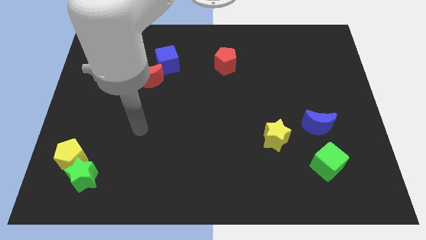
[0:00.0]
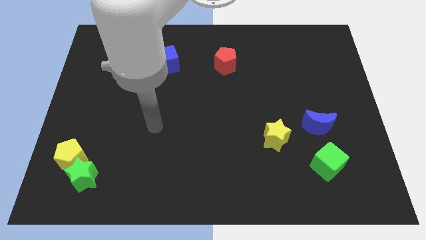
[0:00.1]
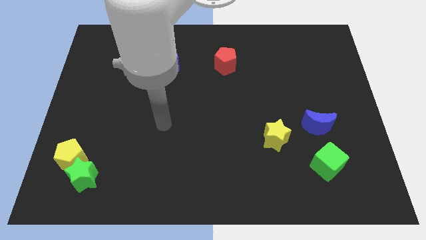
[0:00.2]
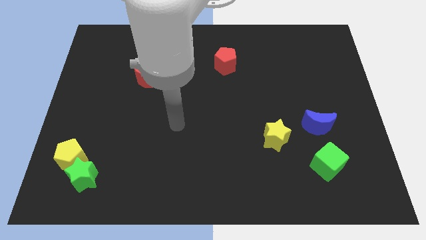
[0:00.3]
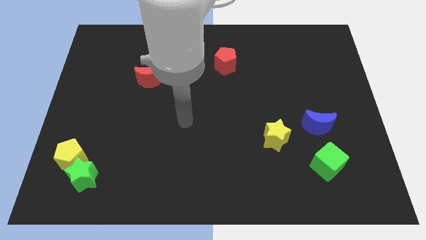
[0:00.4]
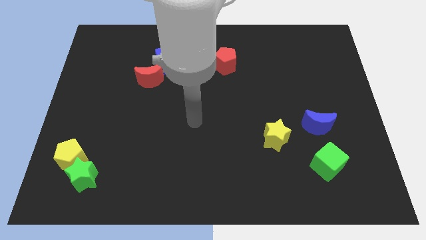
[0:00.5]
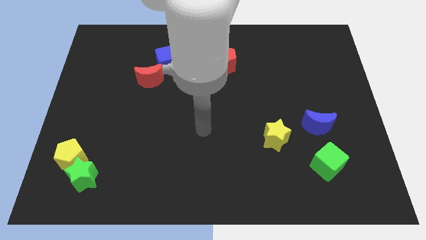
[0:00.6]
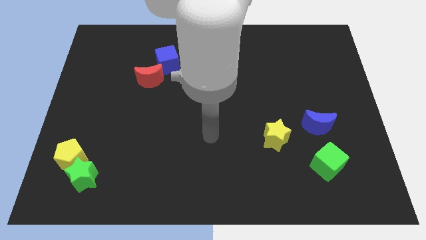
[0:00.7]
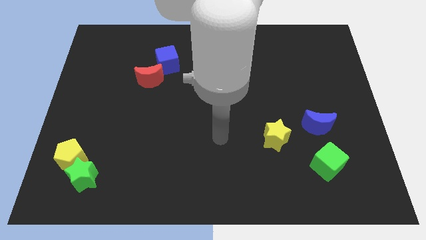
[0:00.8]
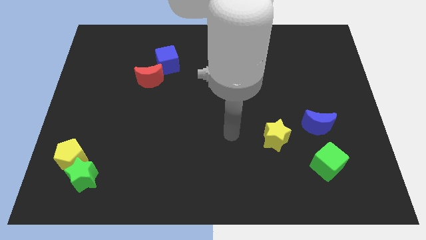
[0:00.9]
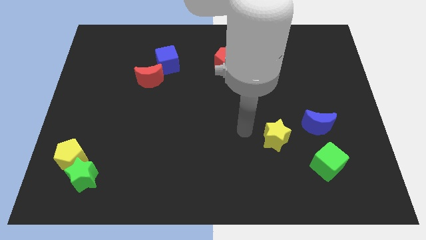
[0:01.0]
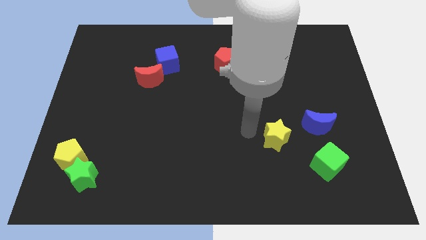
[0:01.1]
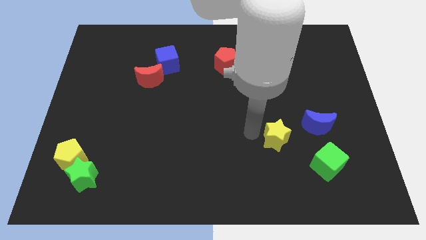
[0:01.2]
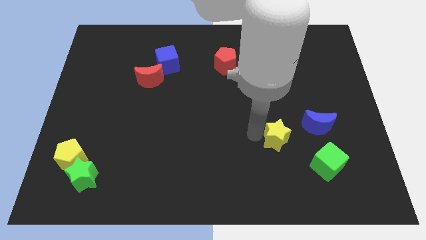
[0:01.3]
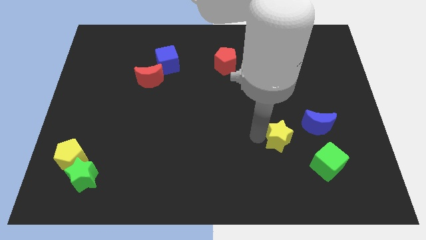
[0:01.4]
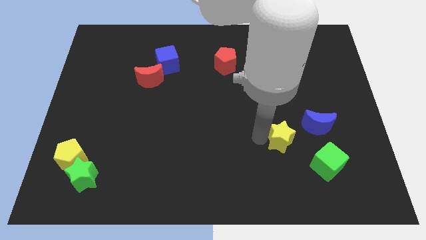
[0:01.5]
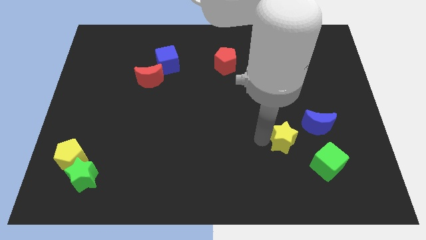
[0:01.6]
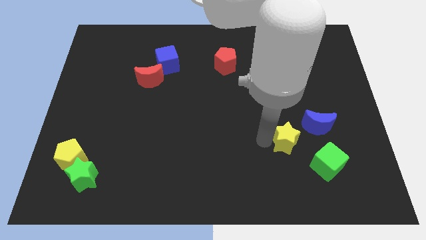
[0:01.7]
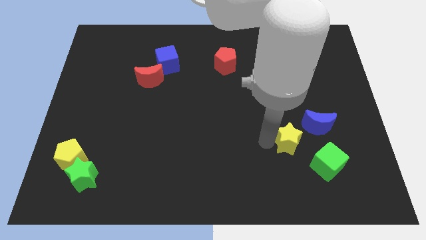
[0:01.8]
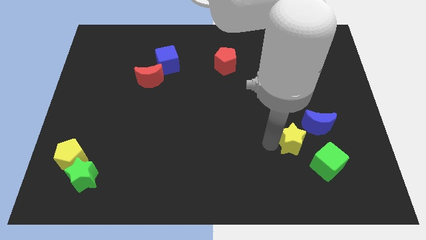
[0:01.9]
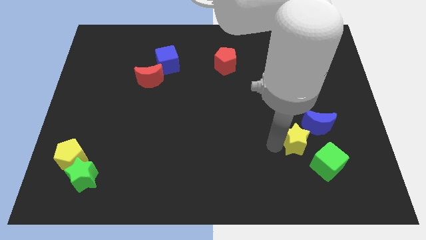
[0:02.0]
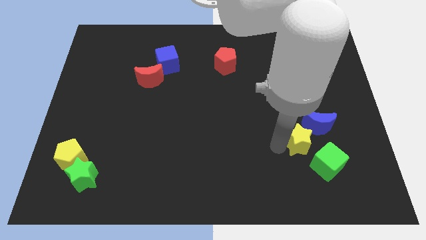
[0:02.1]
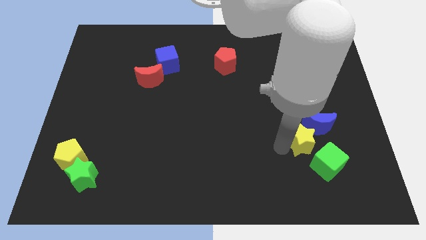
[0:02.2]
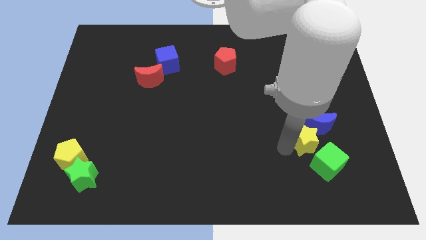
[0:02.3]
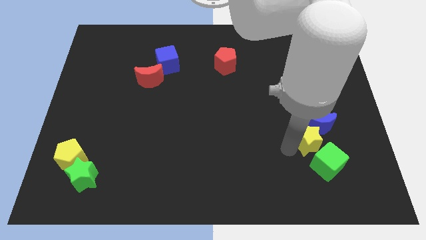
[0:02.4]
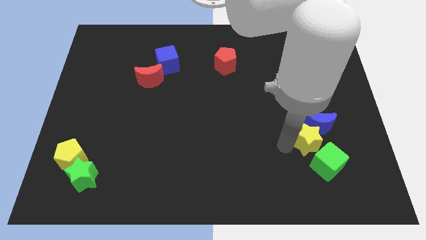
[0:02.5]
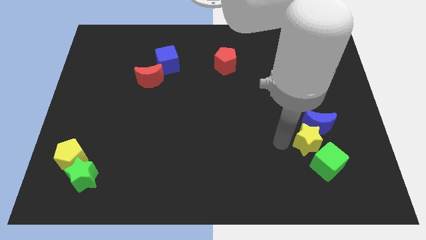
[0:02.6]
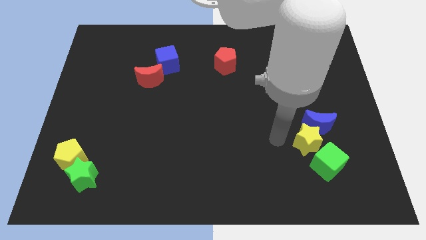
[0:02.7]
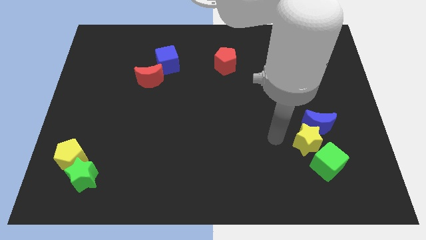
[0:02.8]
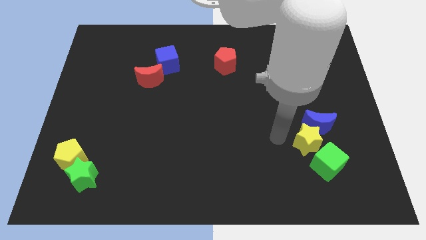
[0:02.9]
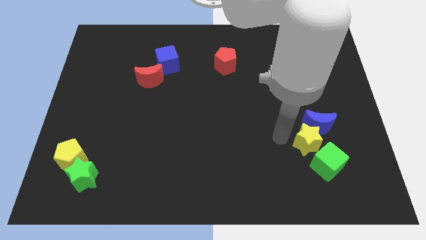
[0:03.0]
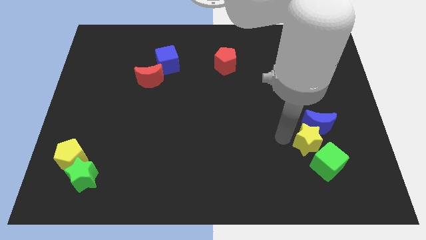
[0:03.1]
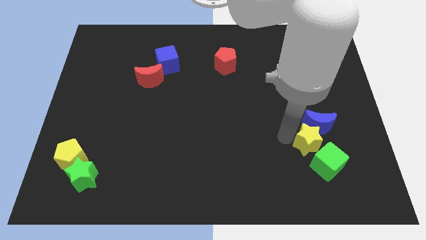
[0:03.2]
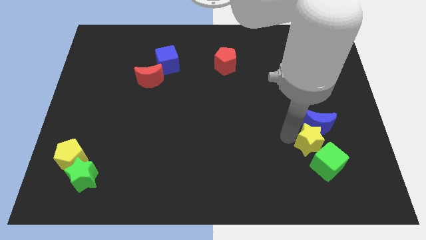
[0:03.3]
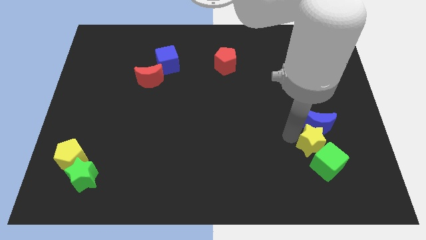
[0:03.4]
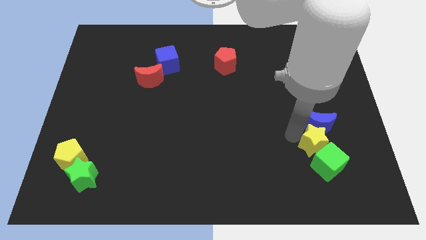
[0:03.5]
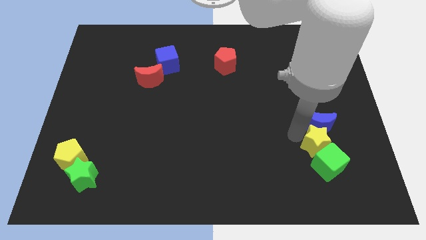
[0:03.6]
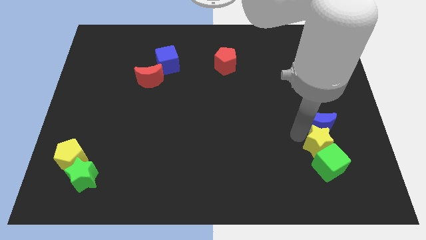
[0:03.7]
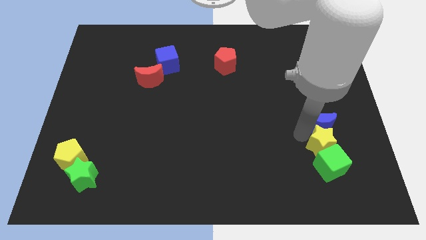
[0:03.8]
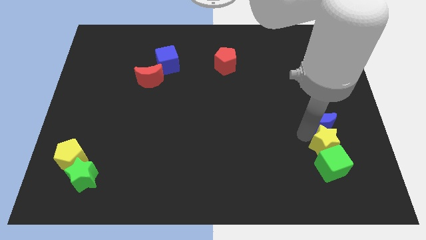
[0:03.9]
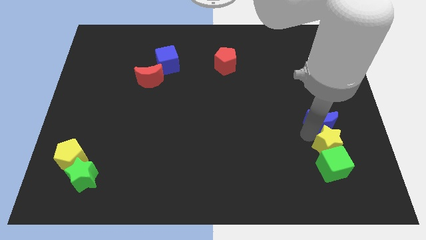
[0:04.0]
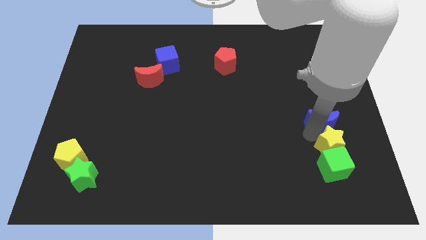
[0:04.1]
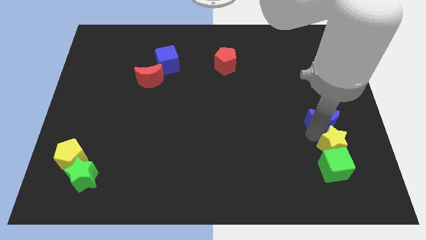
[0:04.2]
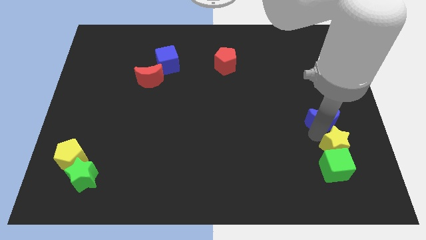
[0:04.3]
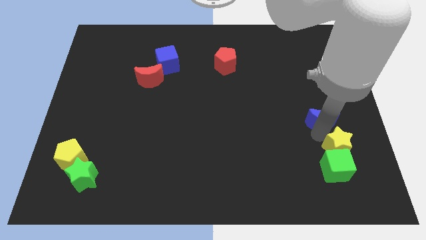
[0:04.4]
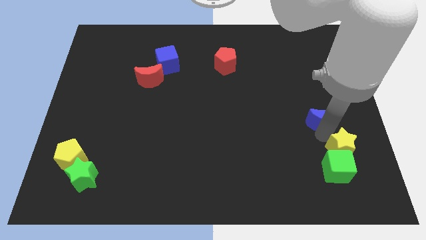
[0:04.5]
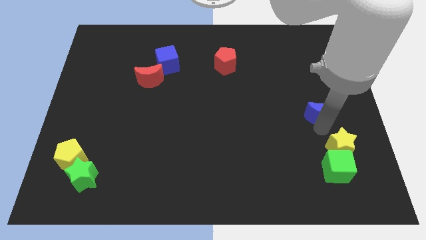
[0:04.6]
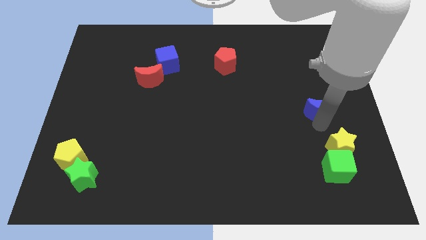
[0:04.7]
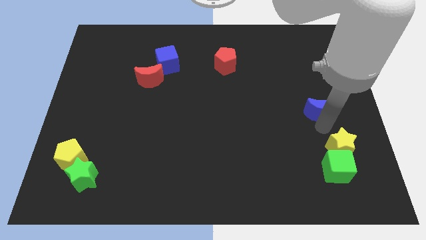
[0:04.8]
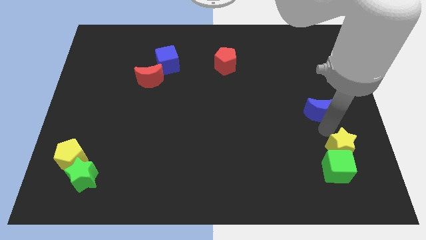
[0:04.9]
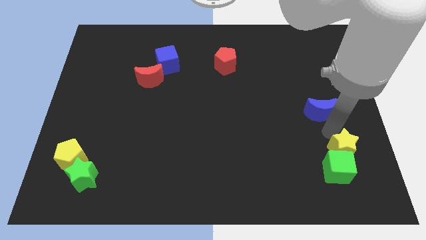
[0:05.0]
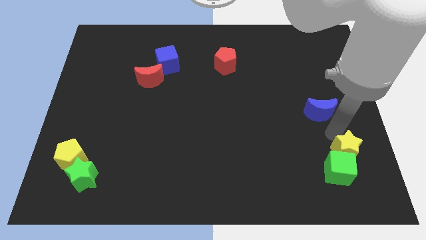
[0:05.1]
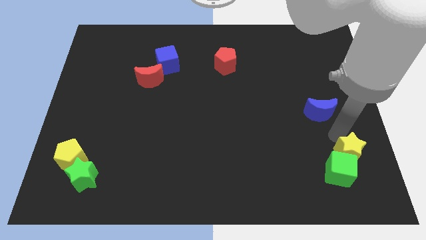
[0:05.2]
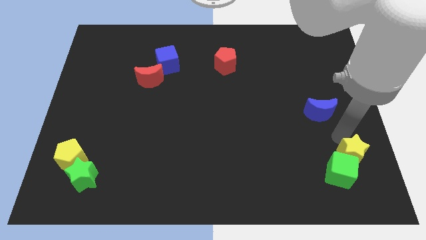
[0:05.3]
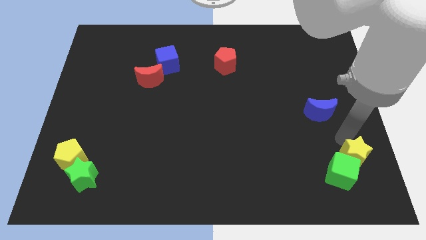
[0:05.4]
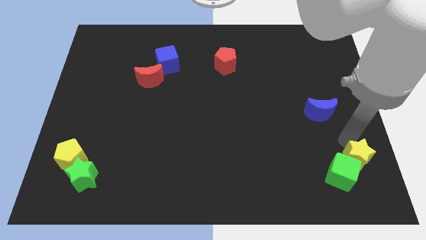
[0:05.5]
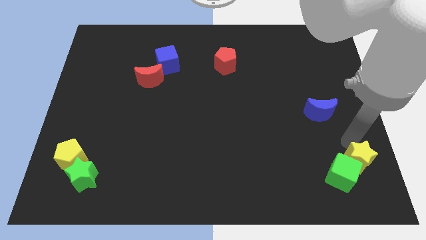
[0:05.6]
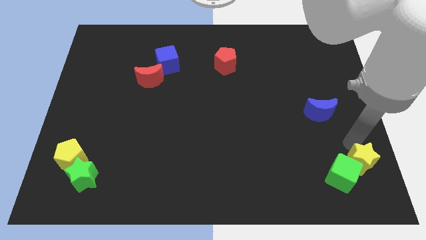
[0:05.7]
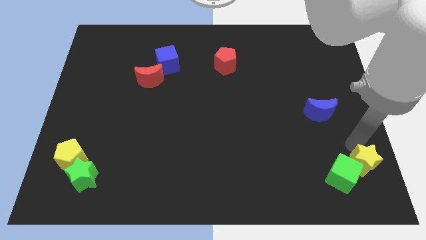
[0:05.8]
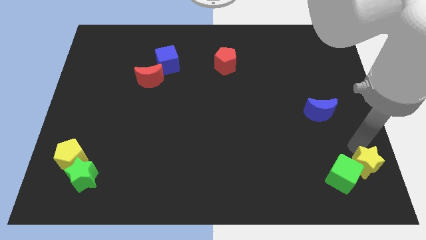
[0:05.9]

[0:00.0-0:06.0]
push the yellow star to the bottom right corner
